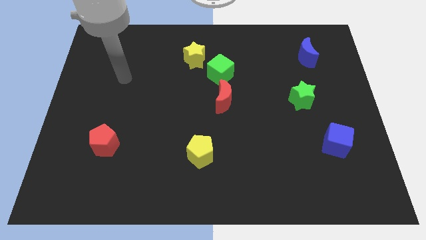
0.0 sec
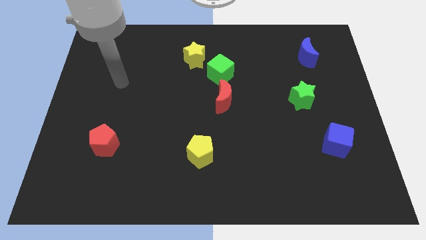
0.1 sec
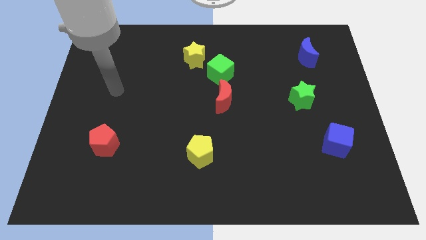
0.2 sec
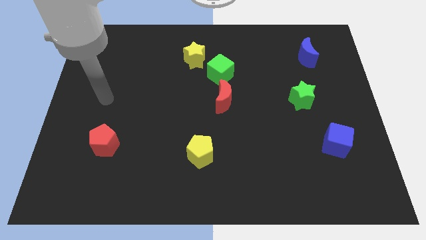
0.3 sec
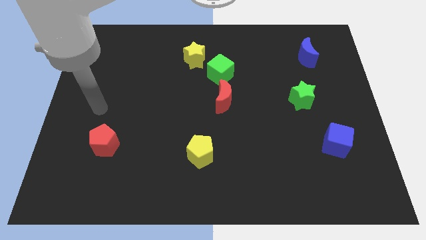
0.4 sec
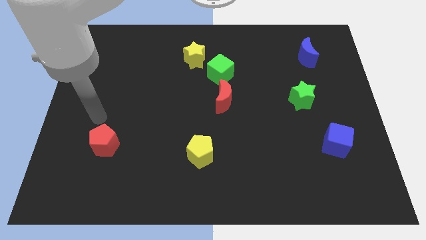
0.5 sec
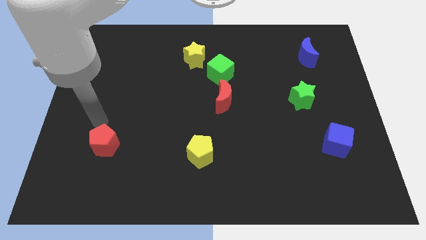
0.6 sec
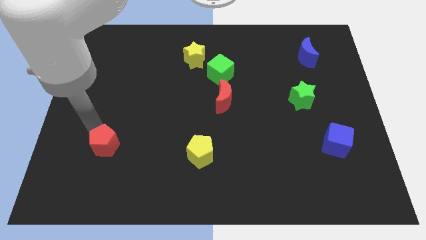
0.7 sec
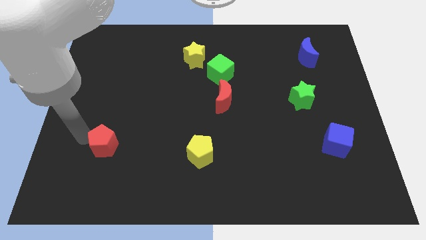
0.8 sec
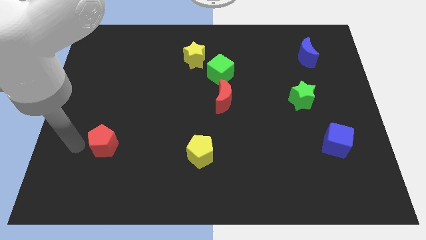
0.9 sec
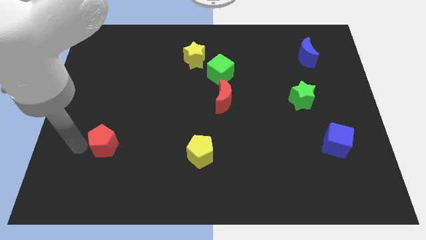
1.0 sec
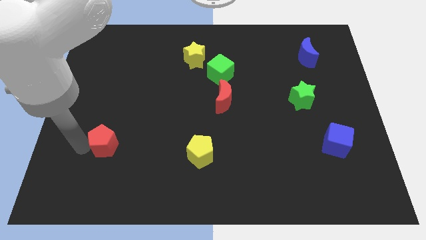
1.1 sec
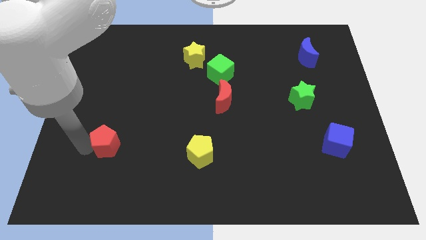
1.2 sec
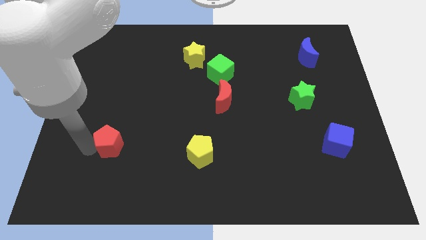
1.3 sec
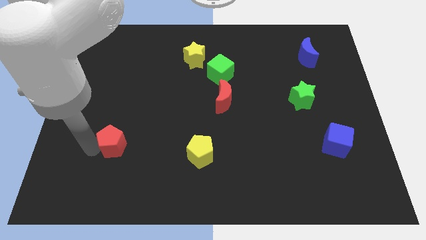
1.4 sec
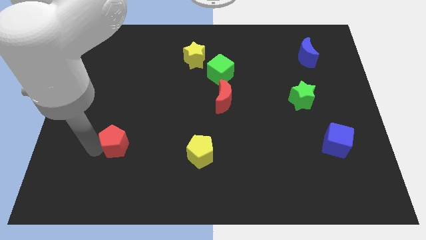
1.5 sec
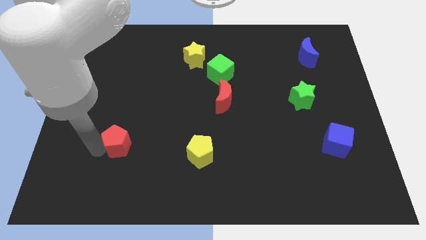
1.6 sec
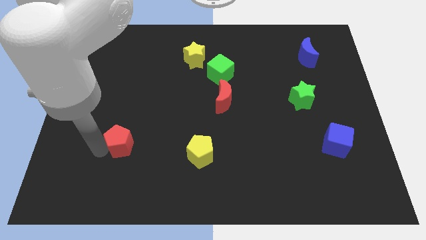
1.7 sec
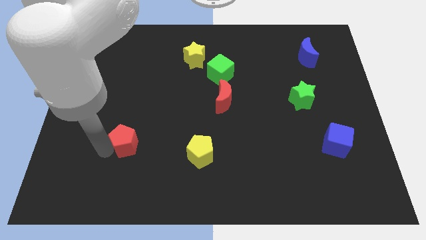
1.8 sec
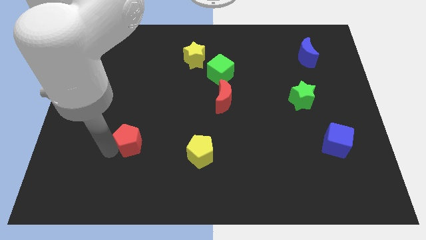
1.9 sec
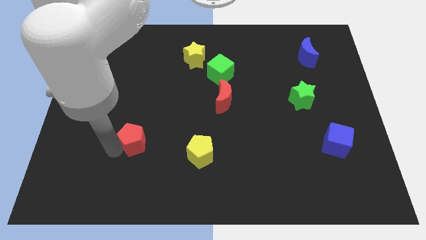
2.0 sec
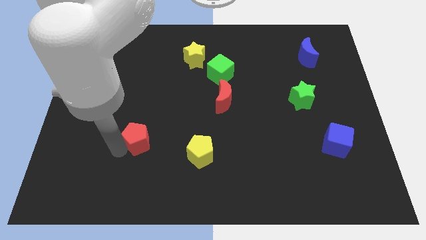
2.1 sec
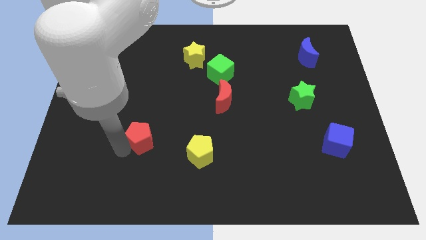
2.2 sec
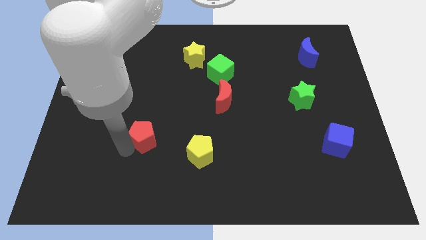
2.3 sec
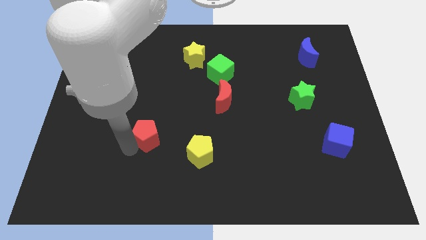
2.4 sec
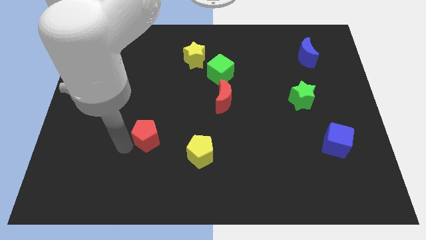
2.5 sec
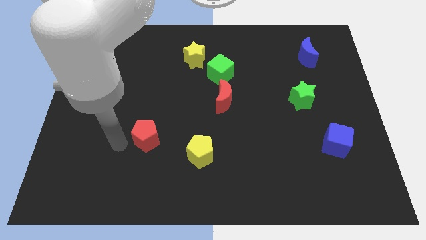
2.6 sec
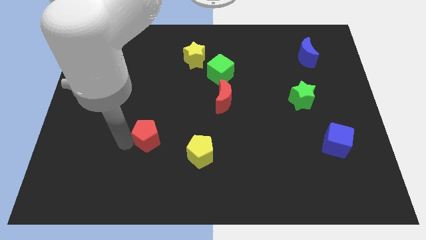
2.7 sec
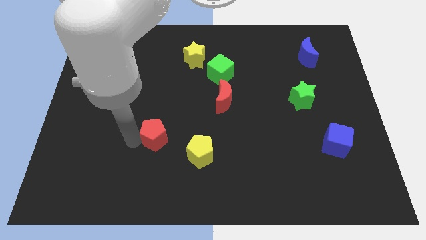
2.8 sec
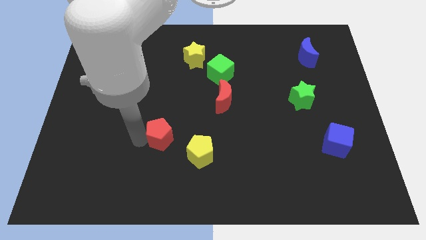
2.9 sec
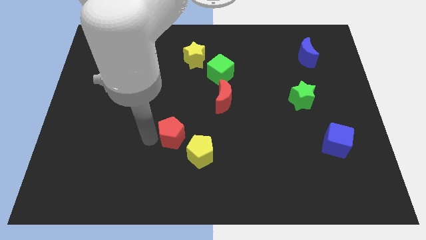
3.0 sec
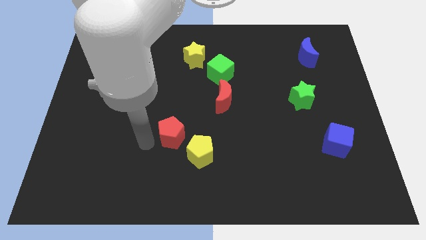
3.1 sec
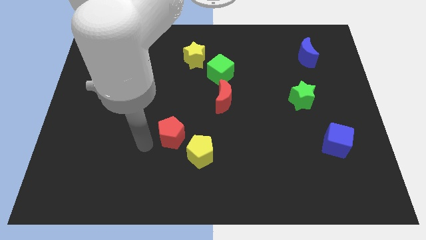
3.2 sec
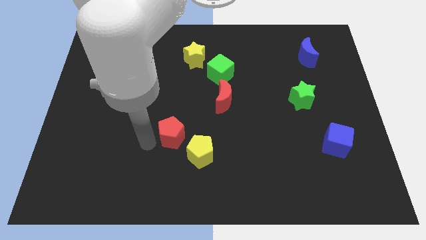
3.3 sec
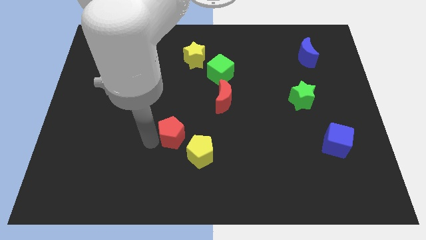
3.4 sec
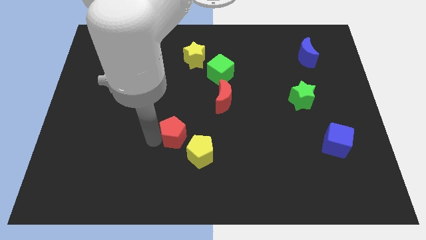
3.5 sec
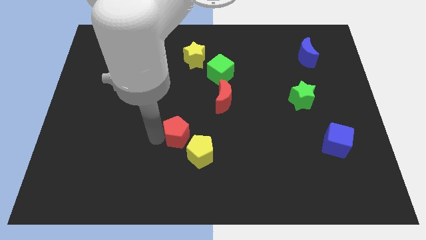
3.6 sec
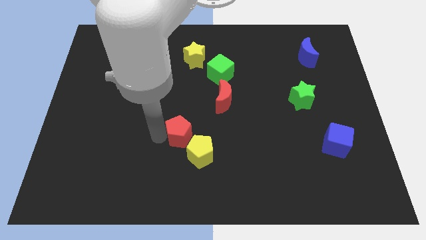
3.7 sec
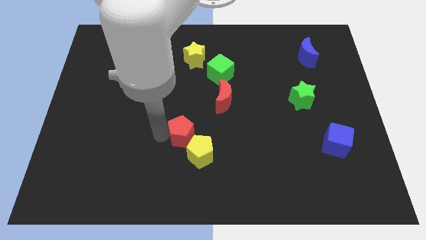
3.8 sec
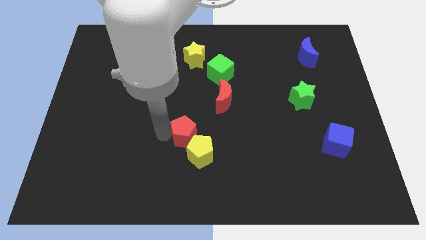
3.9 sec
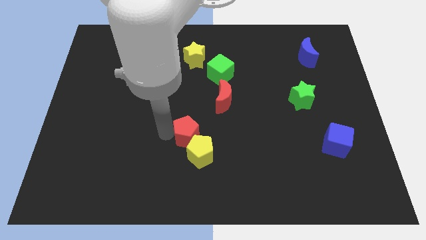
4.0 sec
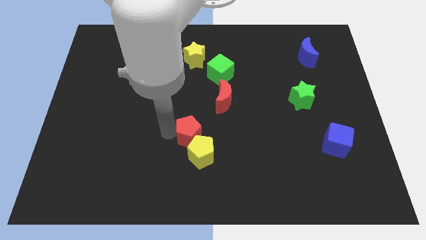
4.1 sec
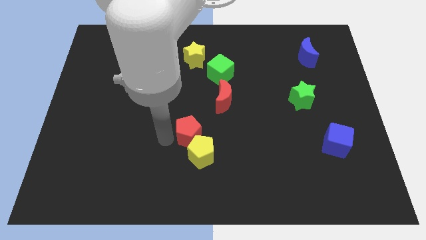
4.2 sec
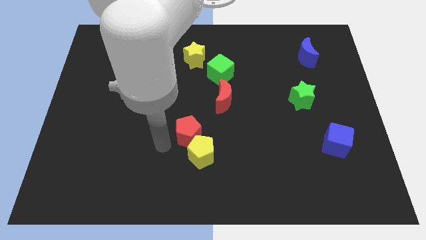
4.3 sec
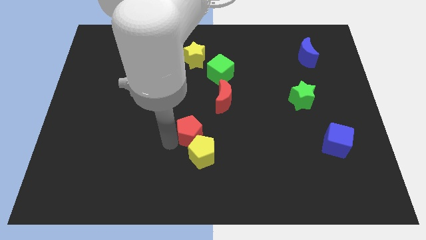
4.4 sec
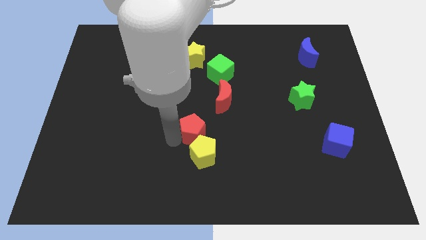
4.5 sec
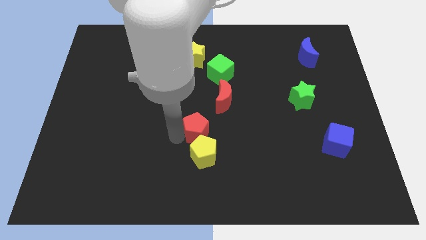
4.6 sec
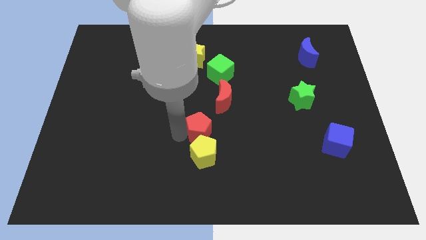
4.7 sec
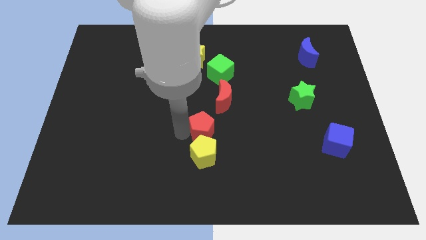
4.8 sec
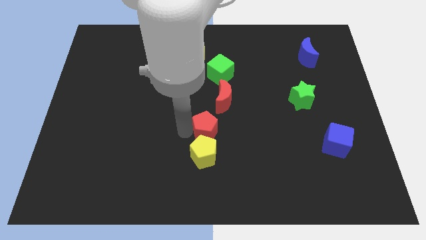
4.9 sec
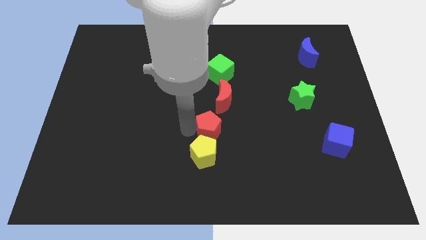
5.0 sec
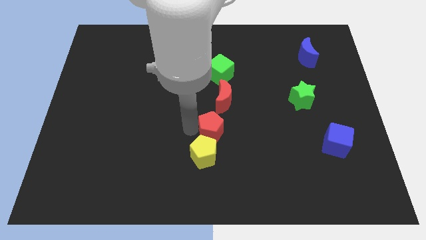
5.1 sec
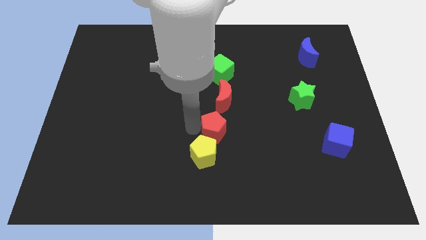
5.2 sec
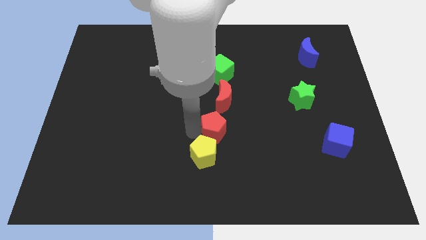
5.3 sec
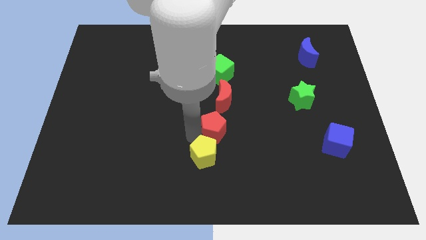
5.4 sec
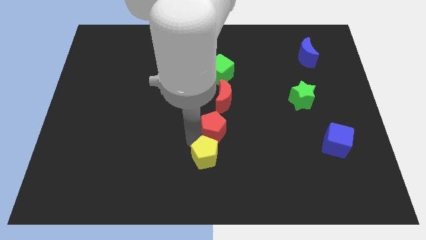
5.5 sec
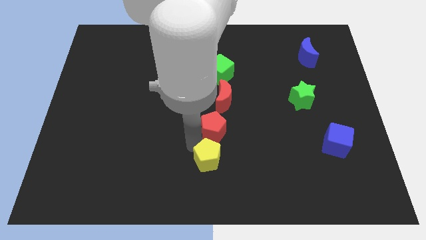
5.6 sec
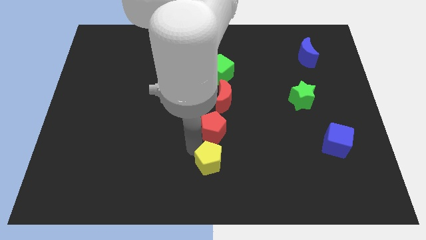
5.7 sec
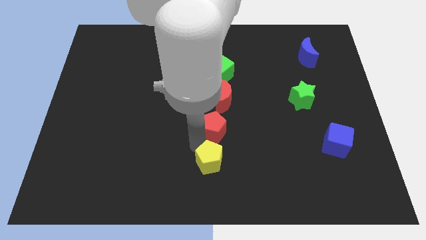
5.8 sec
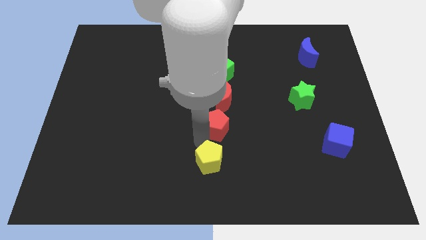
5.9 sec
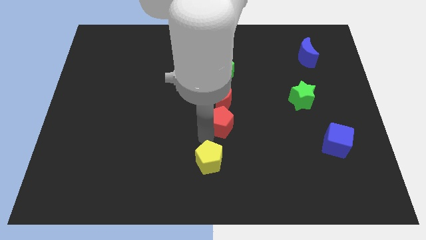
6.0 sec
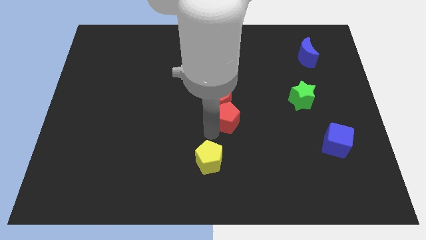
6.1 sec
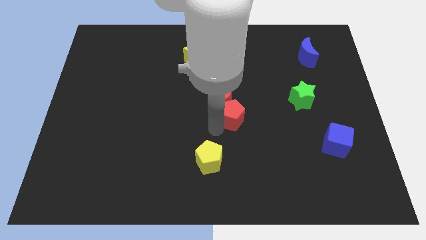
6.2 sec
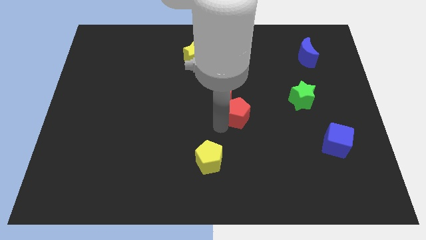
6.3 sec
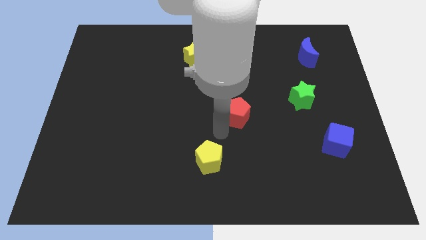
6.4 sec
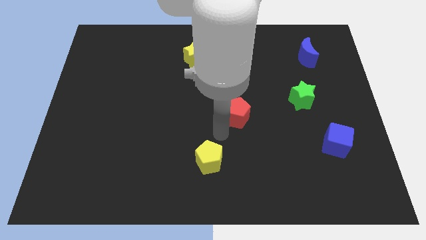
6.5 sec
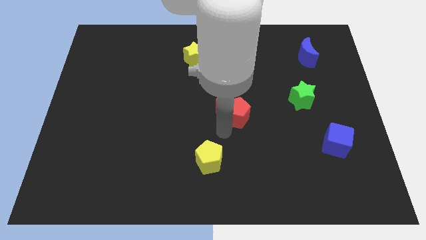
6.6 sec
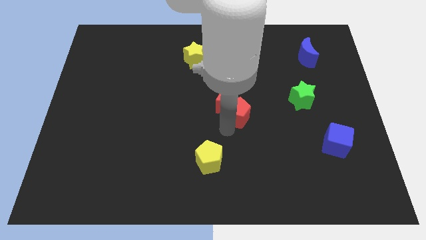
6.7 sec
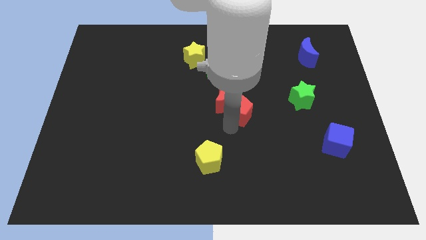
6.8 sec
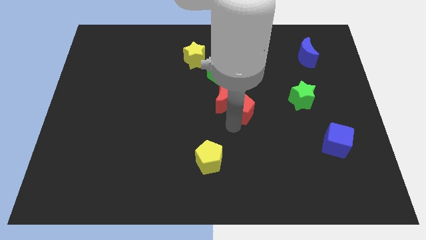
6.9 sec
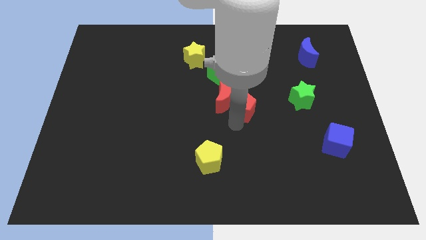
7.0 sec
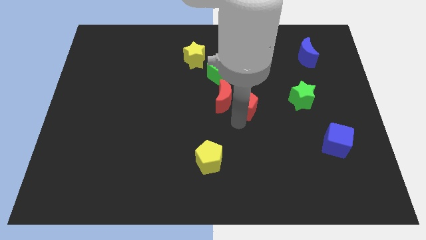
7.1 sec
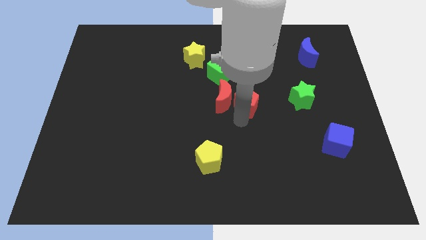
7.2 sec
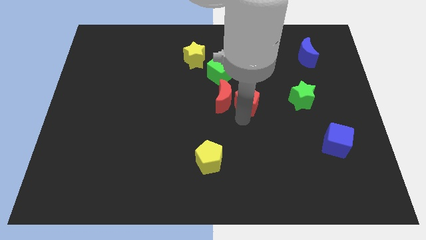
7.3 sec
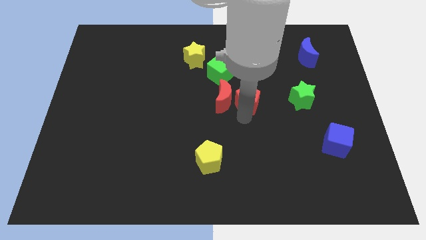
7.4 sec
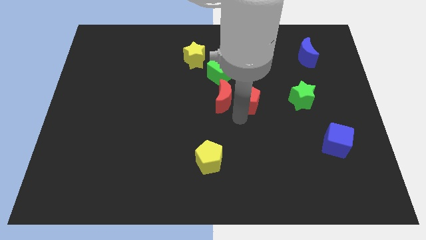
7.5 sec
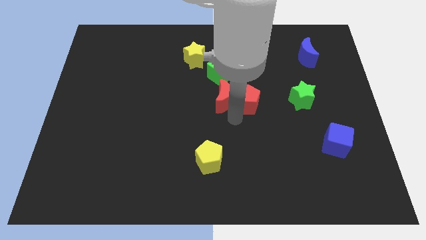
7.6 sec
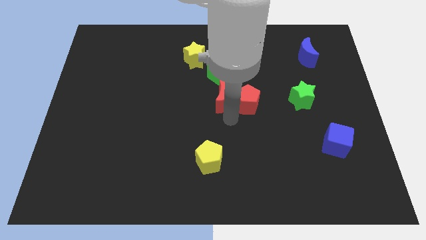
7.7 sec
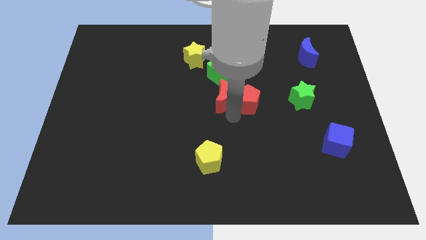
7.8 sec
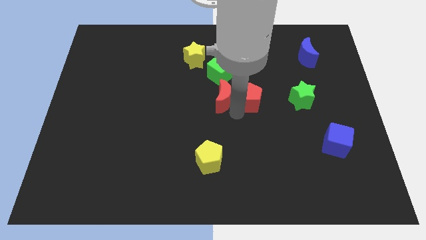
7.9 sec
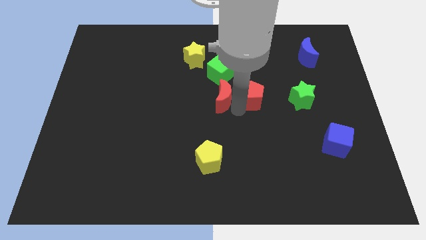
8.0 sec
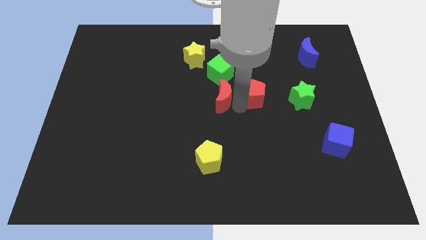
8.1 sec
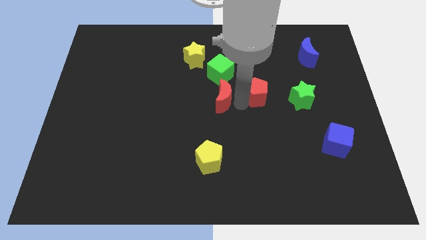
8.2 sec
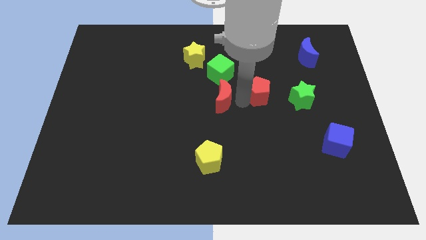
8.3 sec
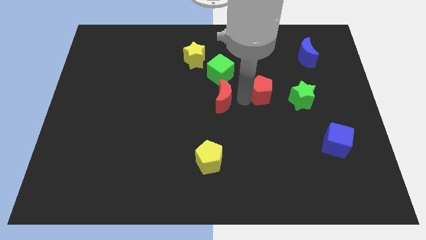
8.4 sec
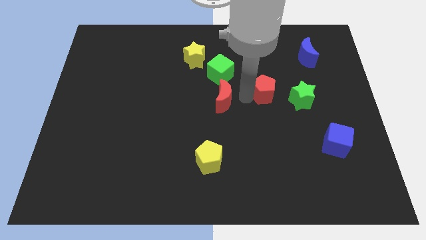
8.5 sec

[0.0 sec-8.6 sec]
push the red pentagon diagonally up and to the left of the green star
